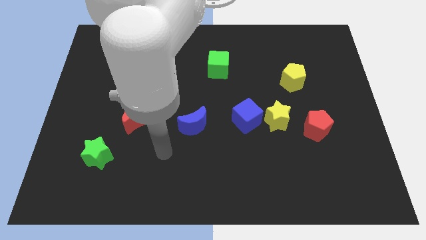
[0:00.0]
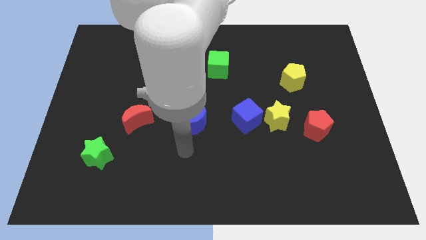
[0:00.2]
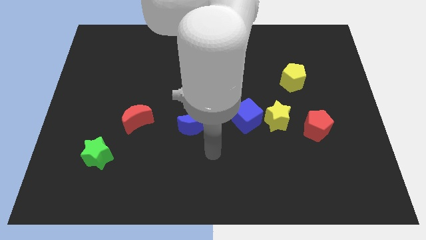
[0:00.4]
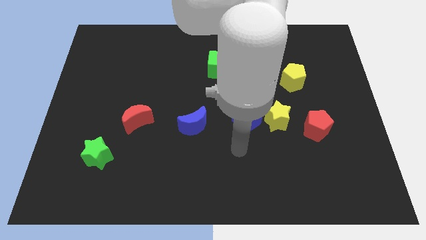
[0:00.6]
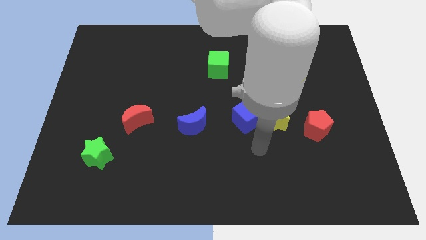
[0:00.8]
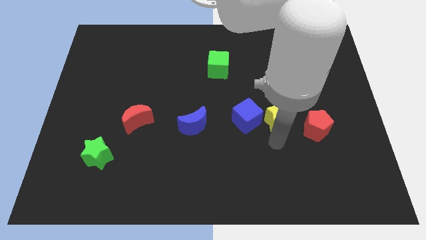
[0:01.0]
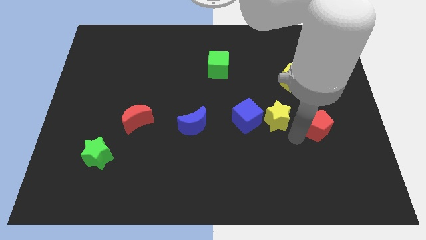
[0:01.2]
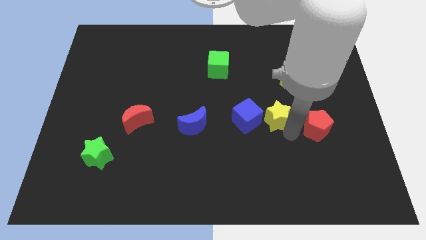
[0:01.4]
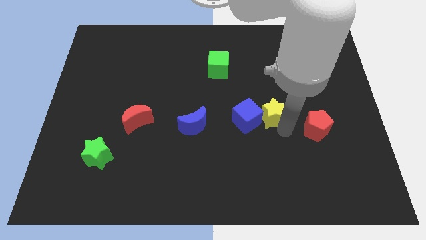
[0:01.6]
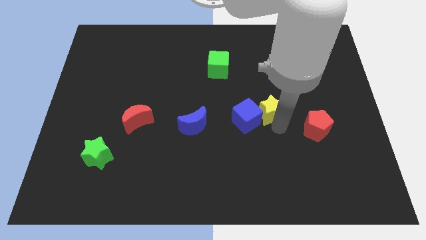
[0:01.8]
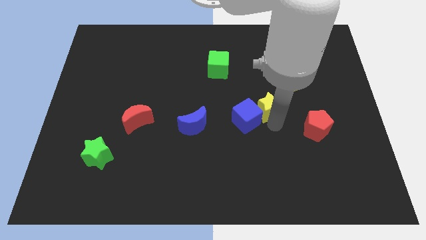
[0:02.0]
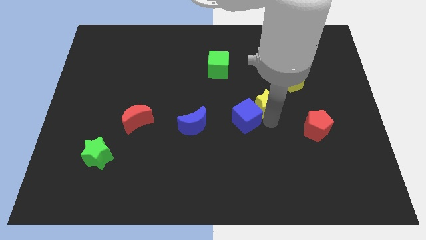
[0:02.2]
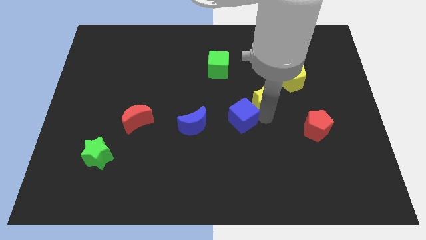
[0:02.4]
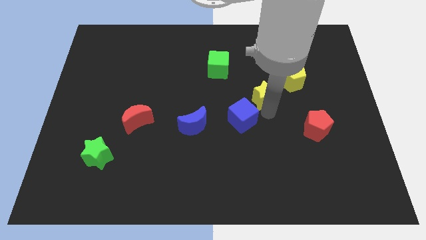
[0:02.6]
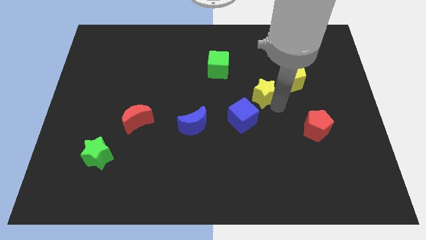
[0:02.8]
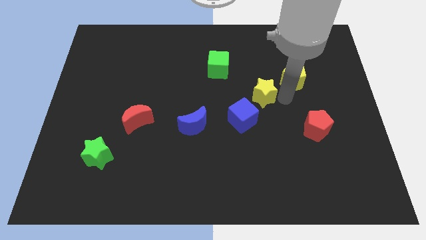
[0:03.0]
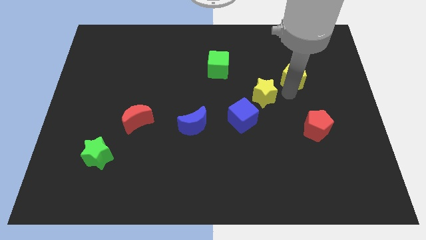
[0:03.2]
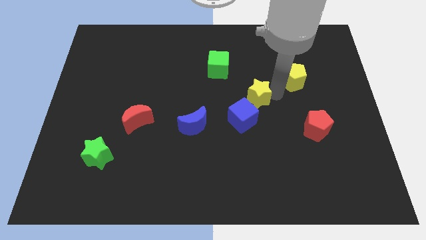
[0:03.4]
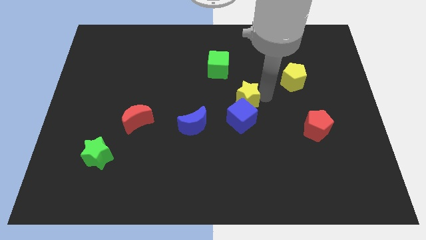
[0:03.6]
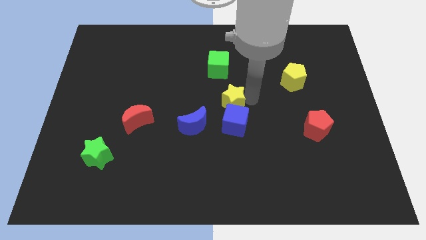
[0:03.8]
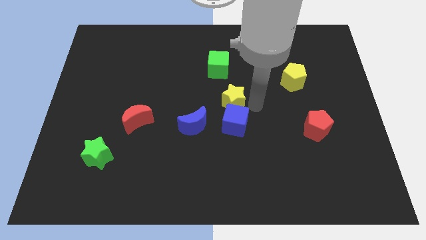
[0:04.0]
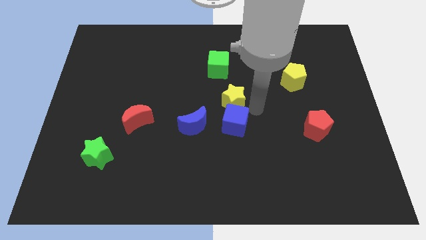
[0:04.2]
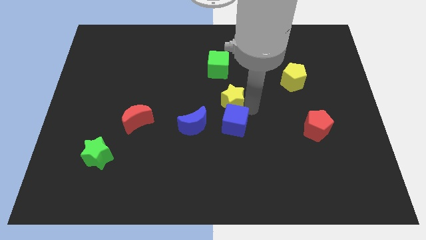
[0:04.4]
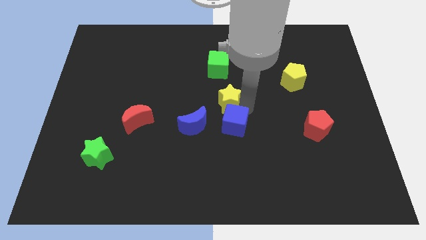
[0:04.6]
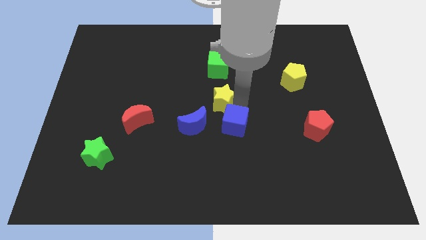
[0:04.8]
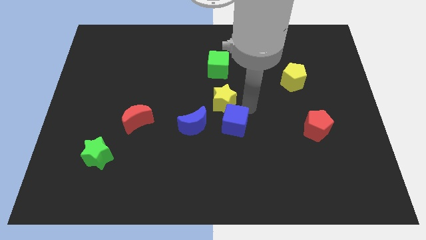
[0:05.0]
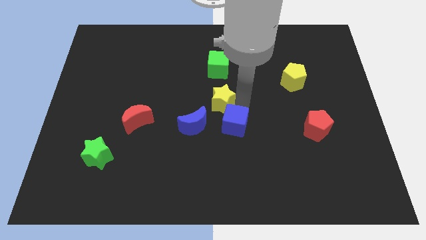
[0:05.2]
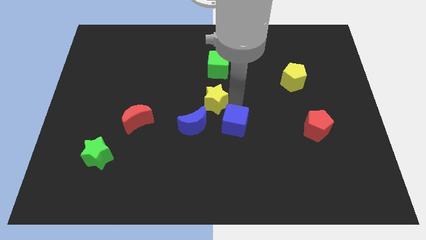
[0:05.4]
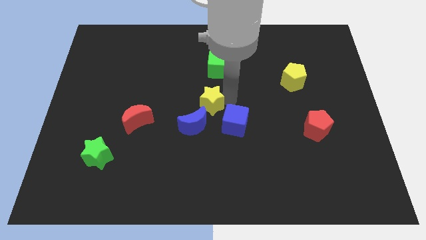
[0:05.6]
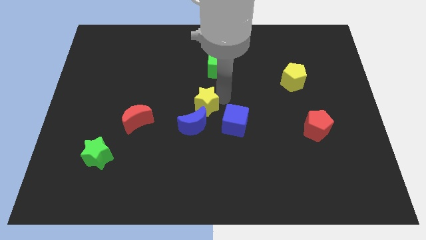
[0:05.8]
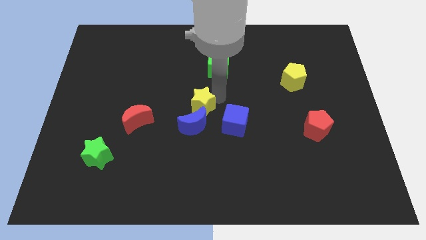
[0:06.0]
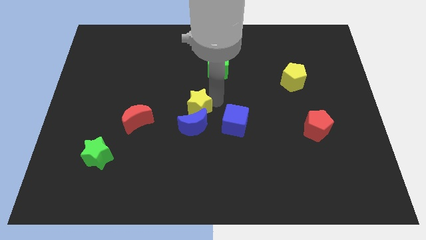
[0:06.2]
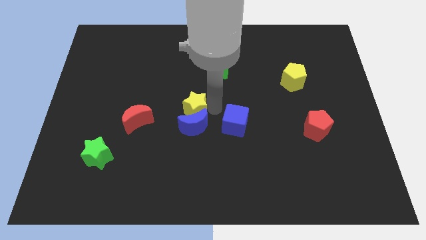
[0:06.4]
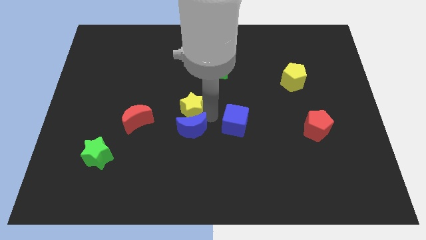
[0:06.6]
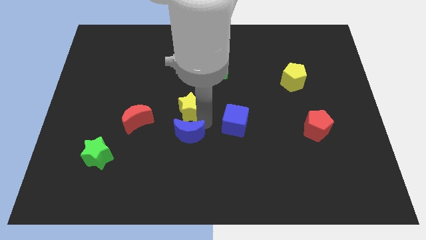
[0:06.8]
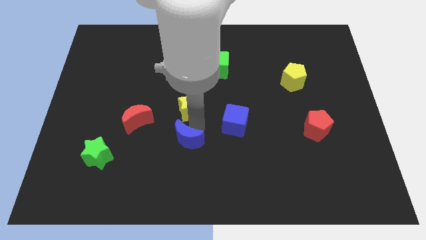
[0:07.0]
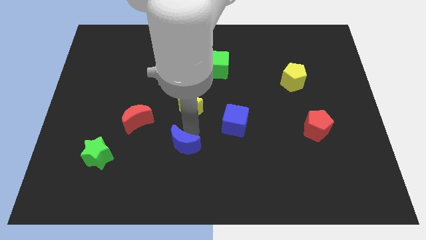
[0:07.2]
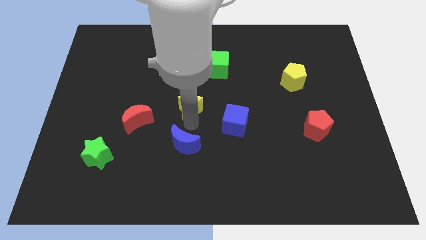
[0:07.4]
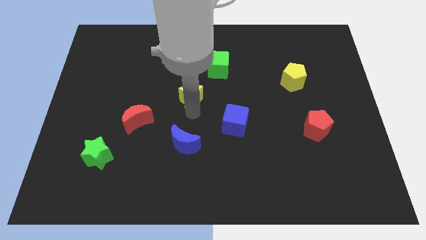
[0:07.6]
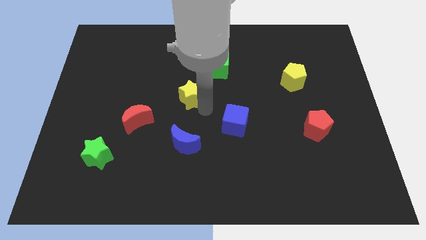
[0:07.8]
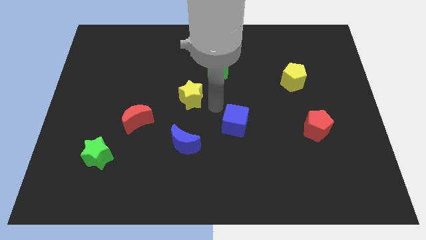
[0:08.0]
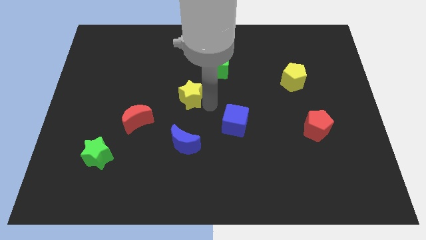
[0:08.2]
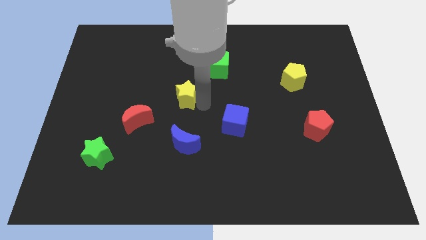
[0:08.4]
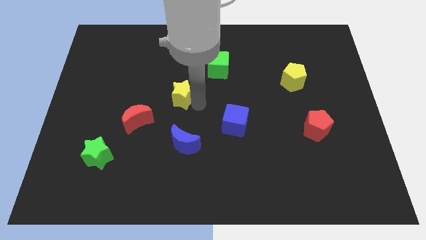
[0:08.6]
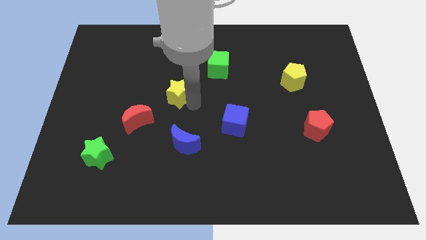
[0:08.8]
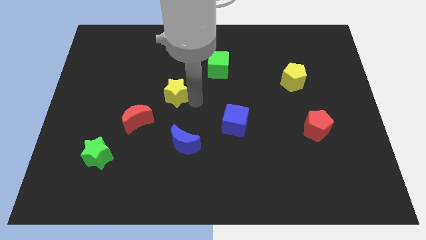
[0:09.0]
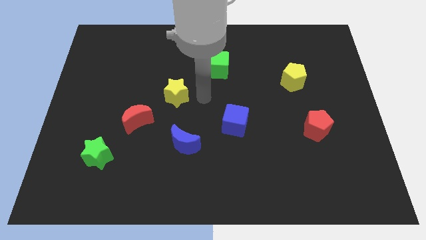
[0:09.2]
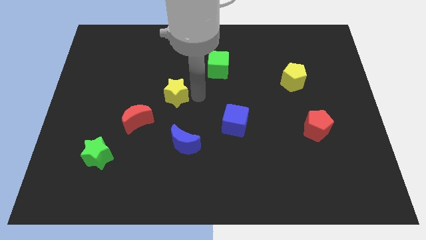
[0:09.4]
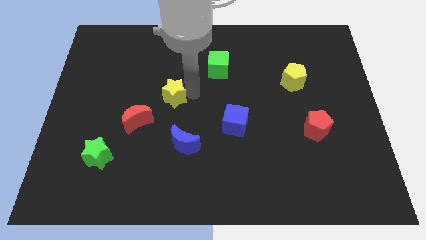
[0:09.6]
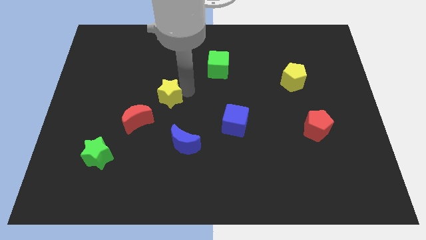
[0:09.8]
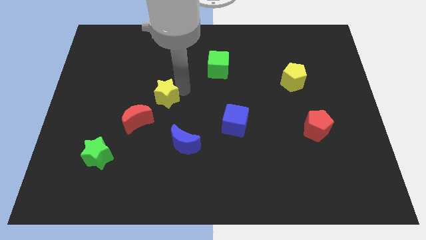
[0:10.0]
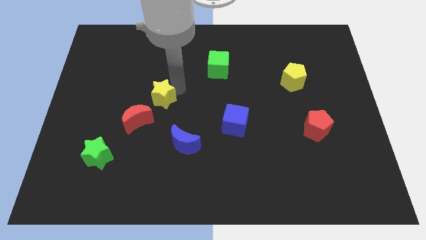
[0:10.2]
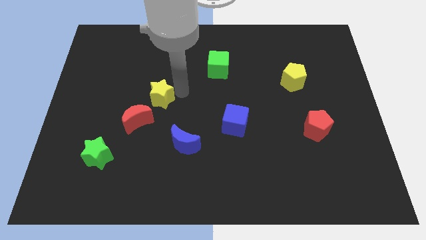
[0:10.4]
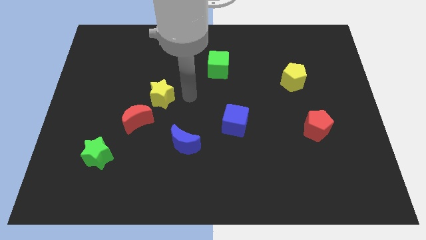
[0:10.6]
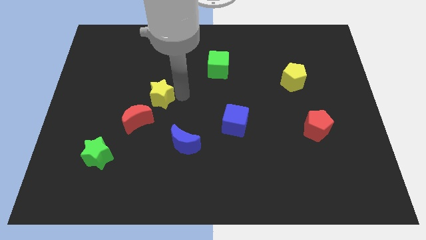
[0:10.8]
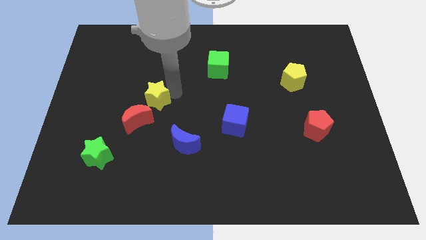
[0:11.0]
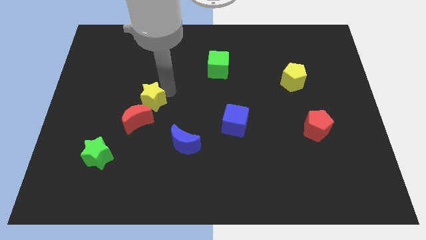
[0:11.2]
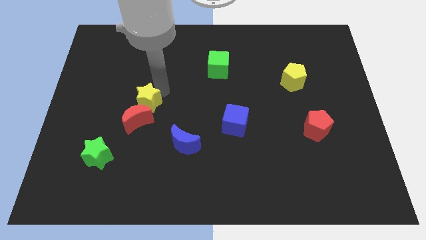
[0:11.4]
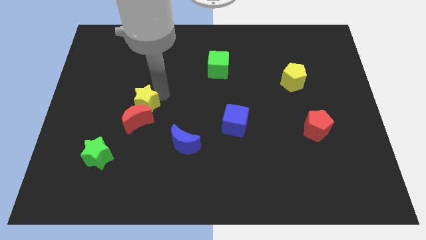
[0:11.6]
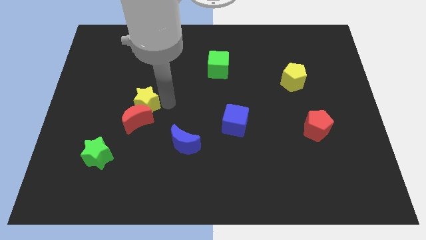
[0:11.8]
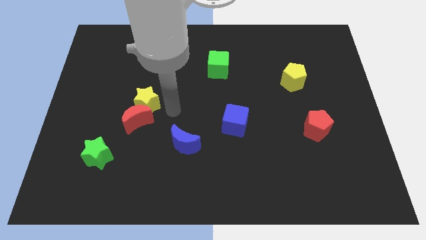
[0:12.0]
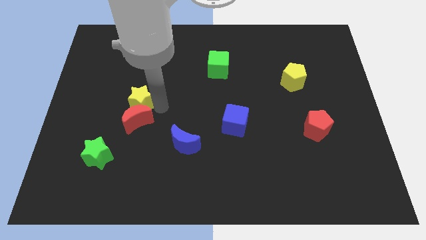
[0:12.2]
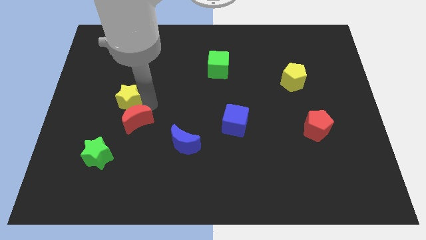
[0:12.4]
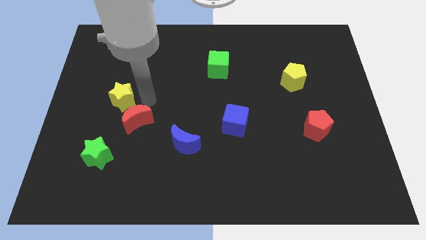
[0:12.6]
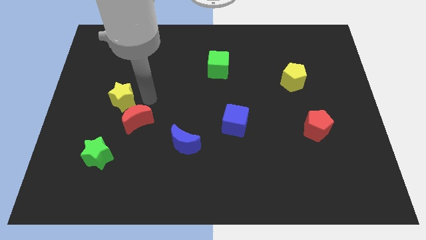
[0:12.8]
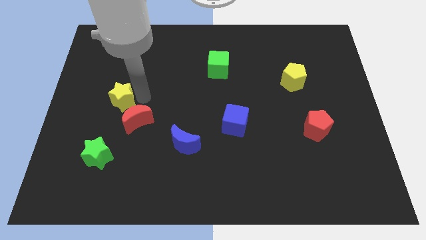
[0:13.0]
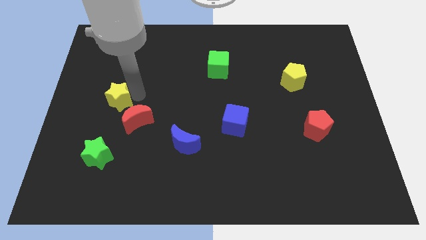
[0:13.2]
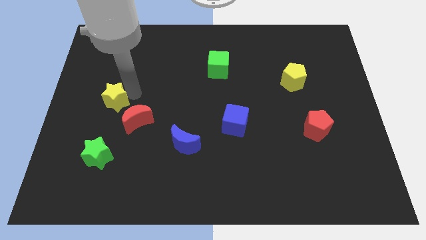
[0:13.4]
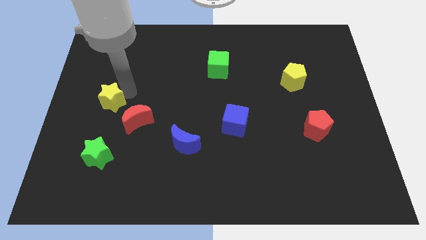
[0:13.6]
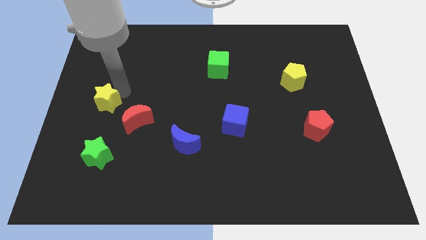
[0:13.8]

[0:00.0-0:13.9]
put the yellow star to the left side of the board
